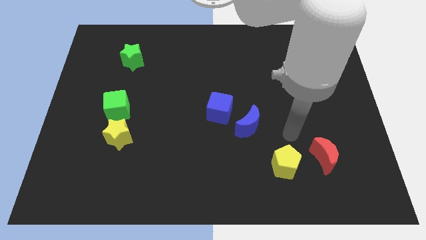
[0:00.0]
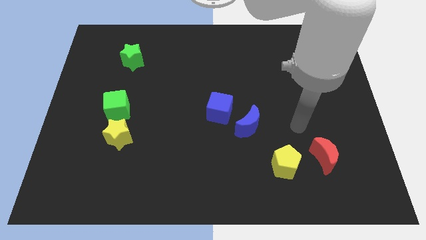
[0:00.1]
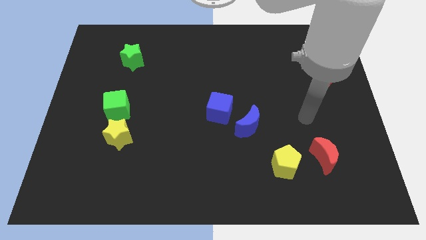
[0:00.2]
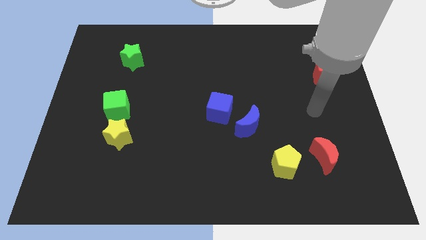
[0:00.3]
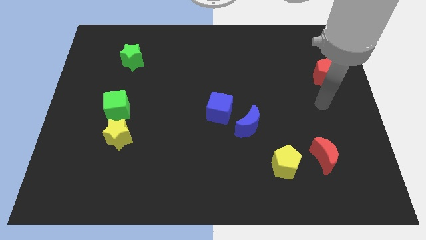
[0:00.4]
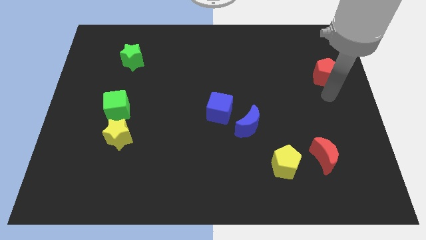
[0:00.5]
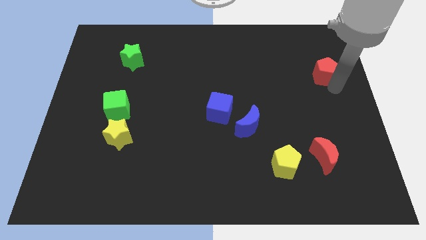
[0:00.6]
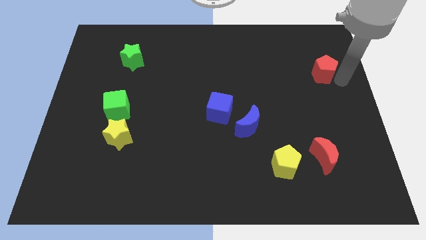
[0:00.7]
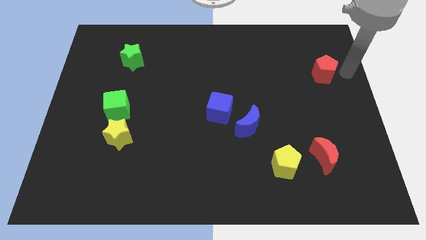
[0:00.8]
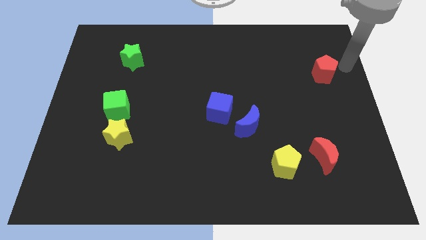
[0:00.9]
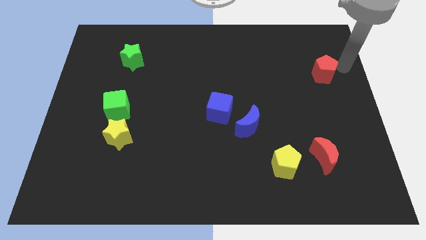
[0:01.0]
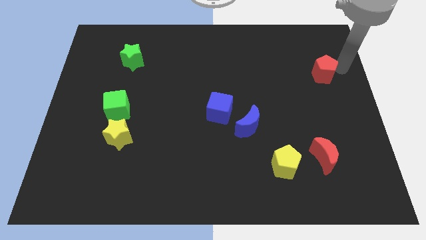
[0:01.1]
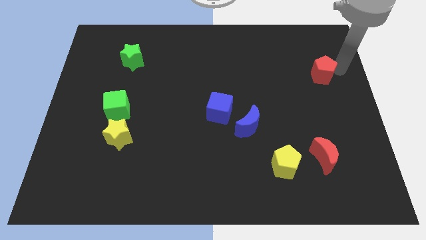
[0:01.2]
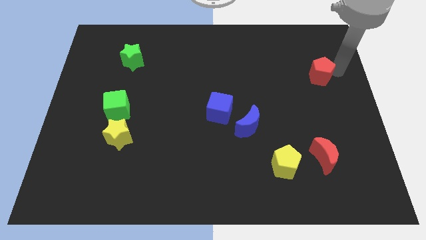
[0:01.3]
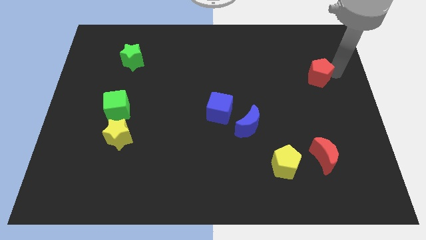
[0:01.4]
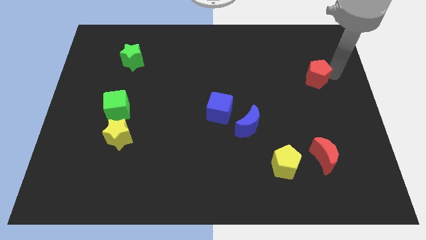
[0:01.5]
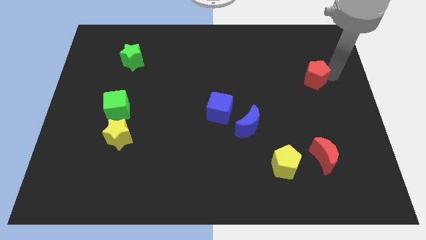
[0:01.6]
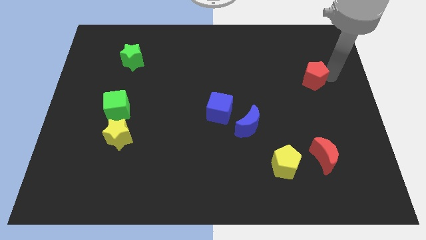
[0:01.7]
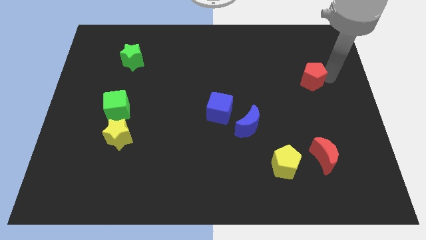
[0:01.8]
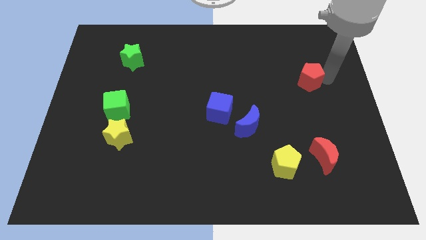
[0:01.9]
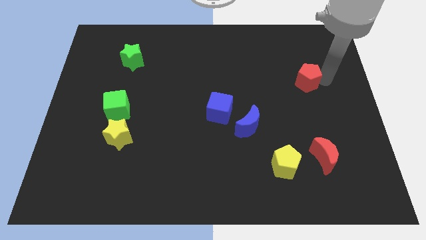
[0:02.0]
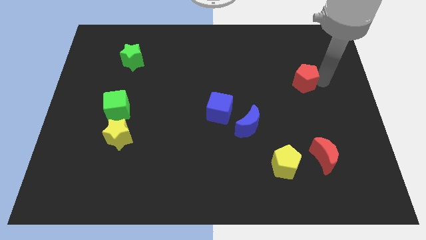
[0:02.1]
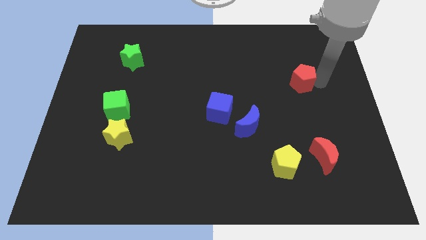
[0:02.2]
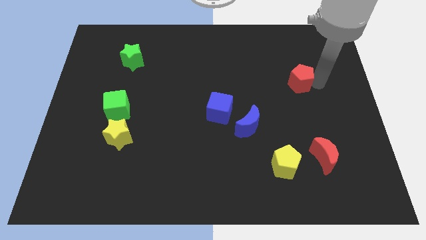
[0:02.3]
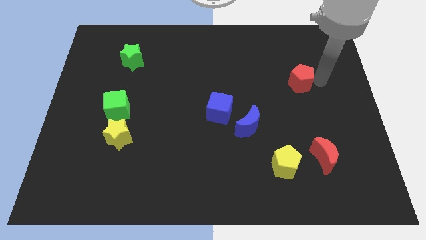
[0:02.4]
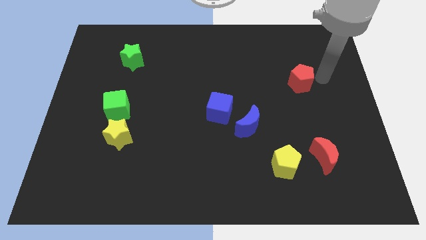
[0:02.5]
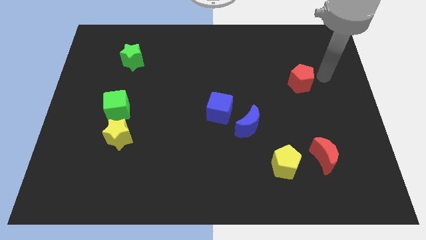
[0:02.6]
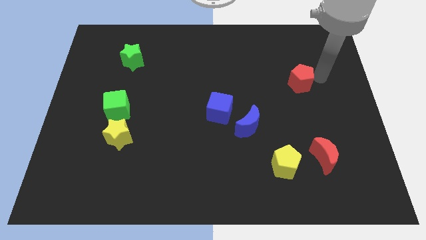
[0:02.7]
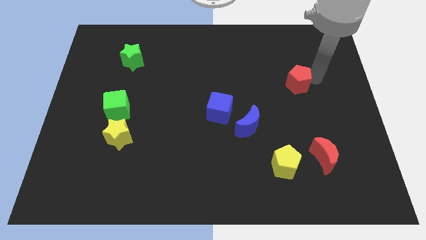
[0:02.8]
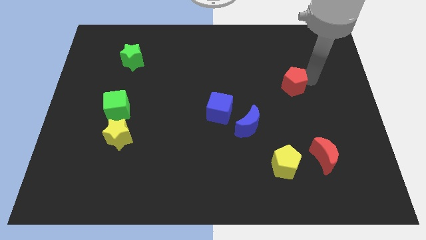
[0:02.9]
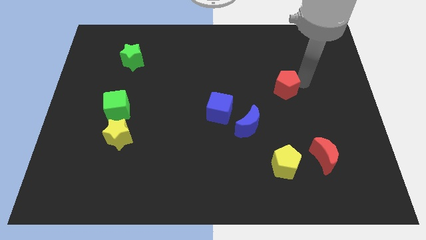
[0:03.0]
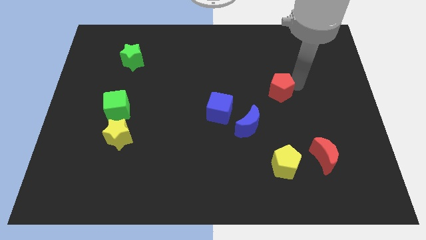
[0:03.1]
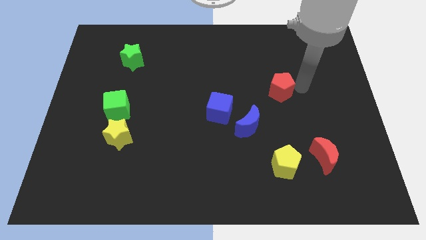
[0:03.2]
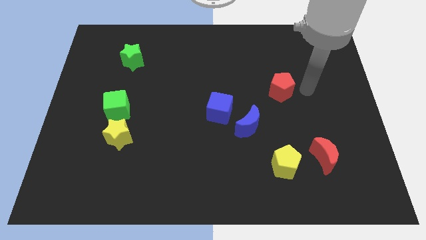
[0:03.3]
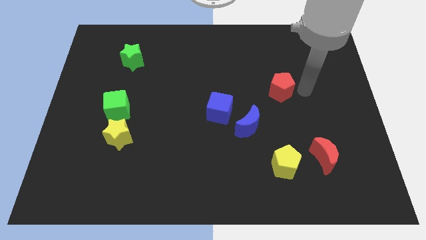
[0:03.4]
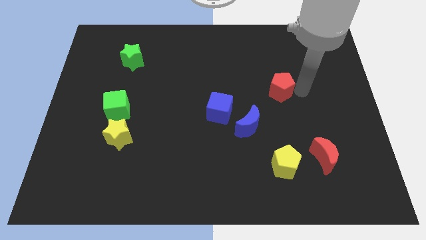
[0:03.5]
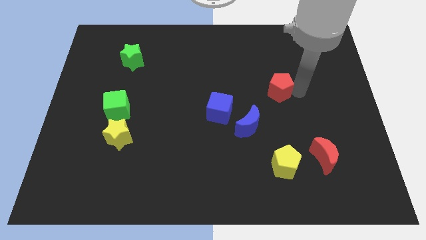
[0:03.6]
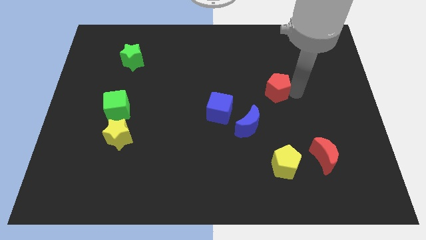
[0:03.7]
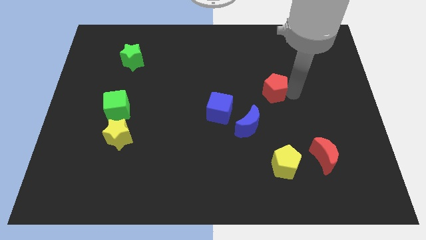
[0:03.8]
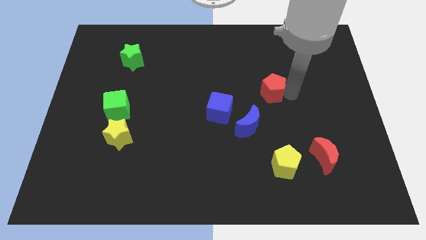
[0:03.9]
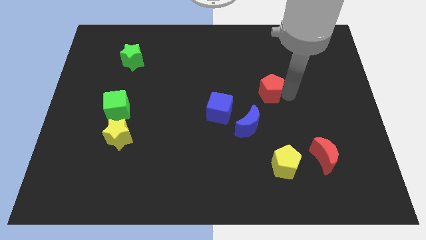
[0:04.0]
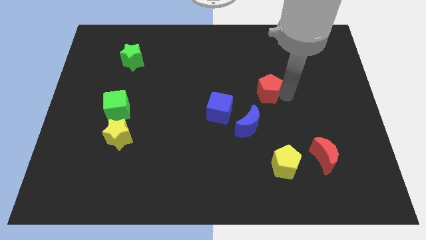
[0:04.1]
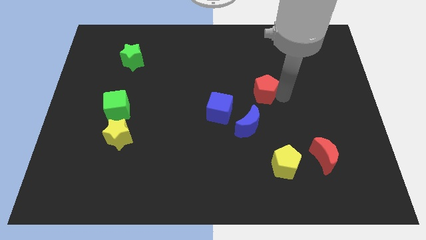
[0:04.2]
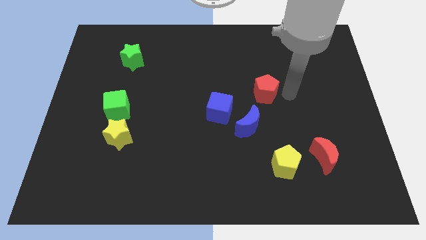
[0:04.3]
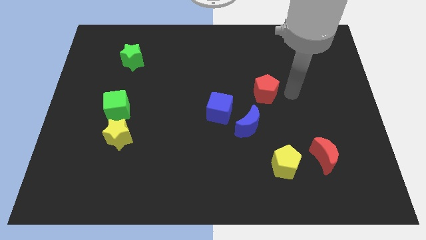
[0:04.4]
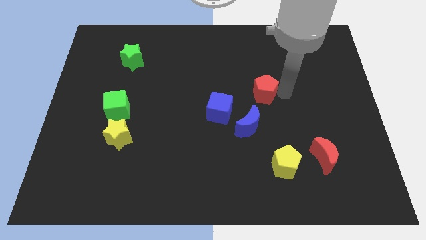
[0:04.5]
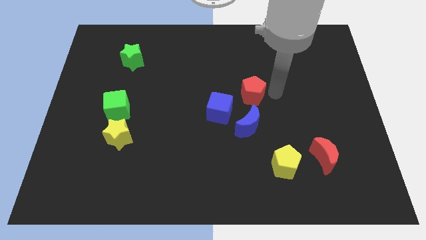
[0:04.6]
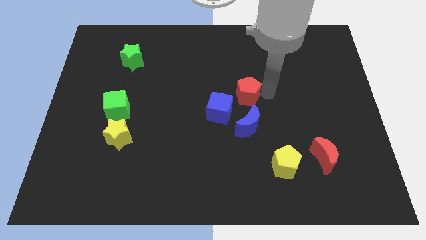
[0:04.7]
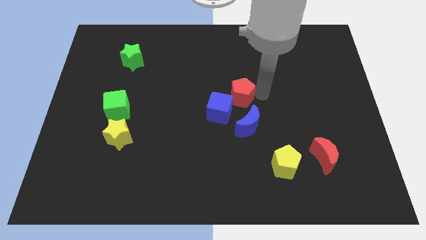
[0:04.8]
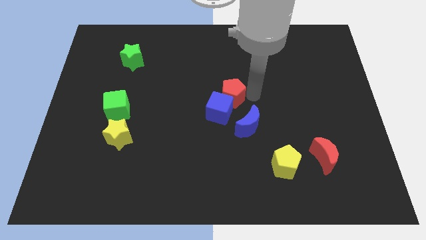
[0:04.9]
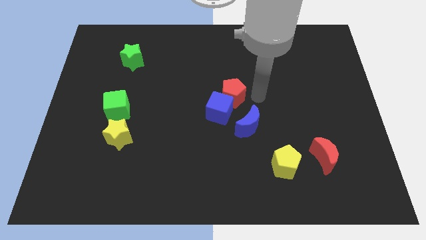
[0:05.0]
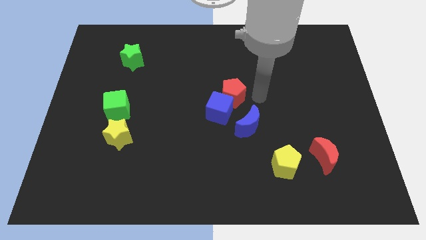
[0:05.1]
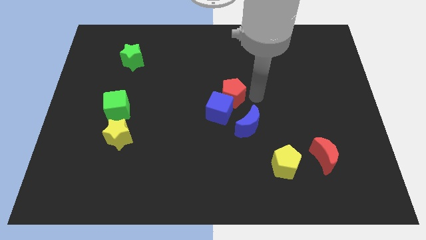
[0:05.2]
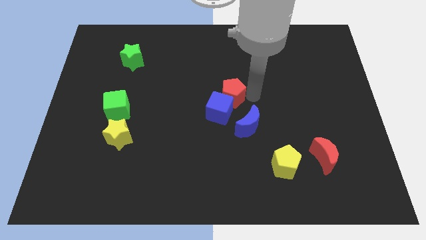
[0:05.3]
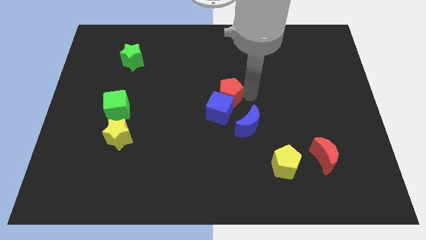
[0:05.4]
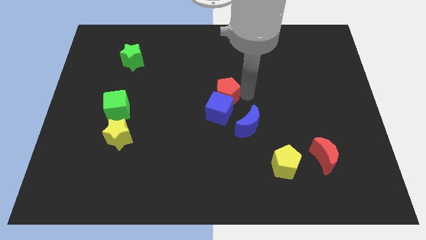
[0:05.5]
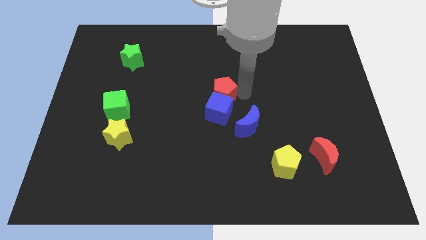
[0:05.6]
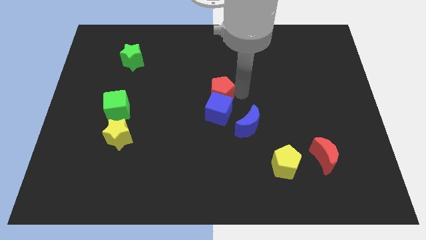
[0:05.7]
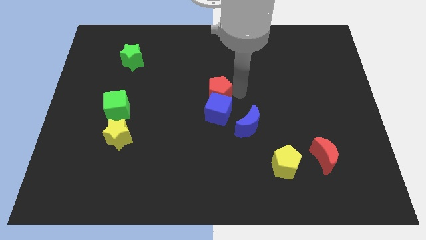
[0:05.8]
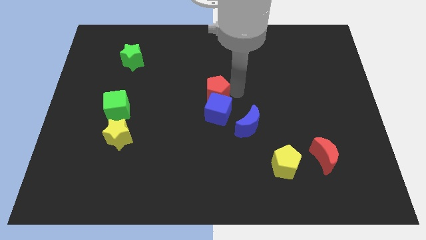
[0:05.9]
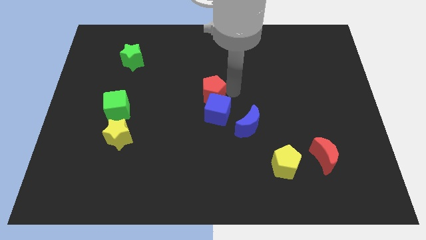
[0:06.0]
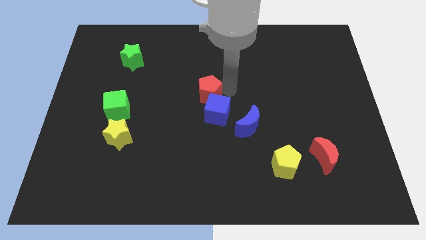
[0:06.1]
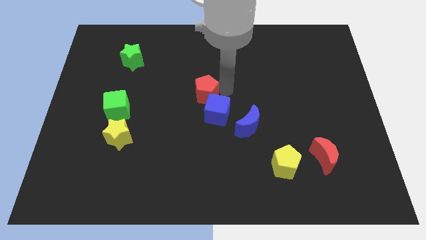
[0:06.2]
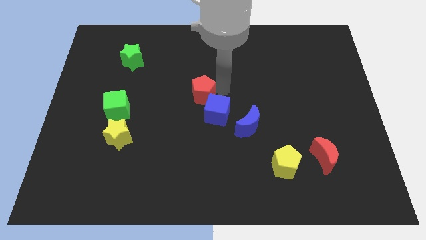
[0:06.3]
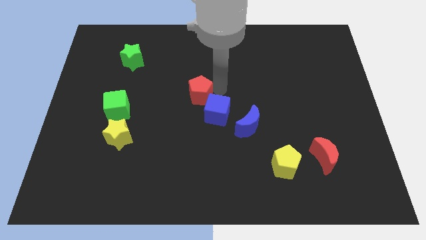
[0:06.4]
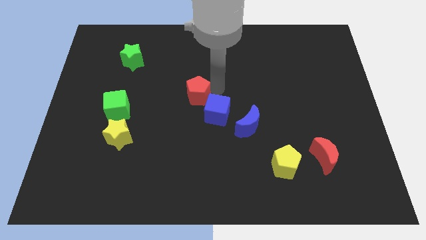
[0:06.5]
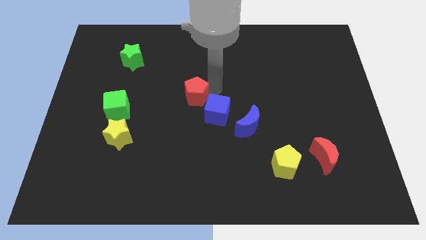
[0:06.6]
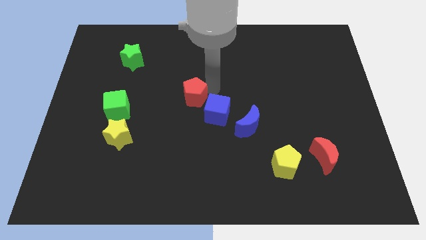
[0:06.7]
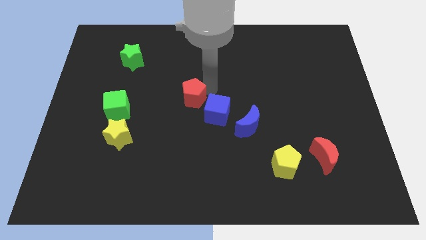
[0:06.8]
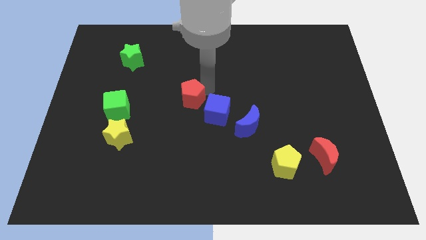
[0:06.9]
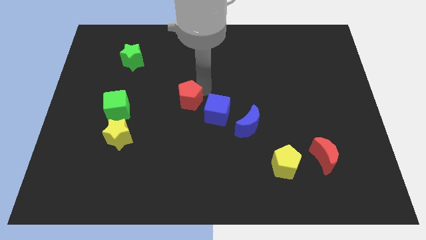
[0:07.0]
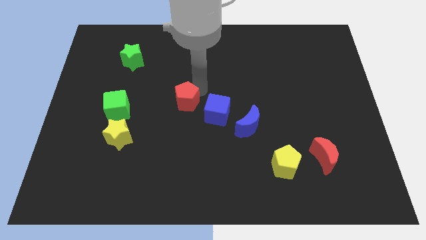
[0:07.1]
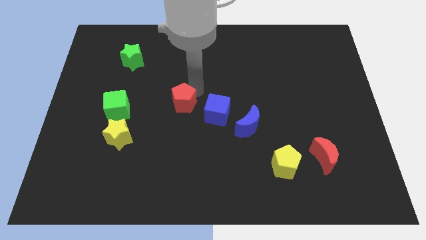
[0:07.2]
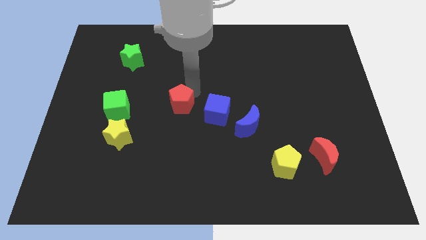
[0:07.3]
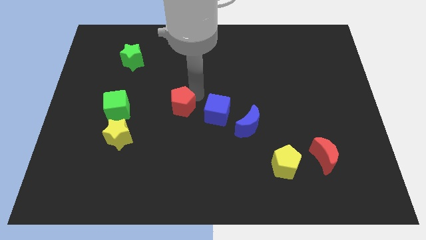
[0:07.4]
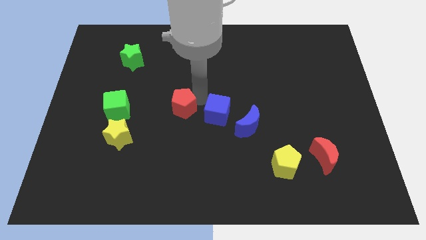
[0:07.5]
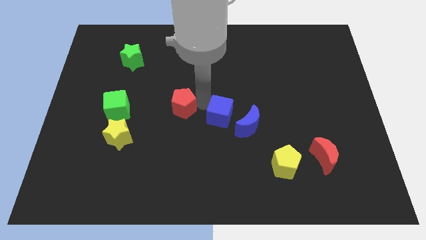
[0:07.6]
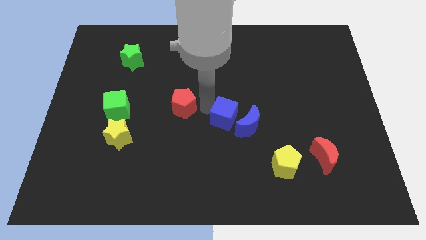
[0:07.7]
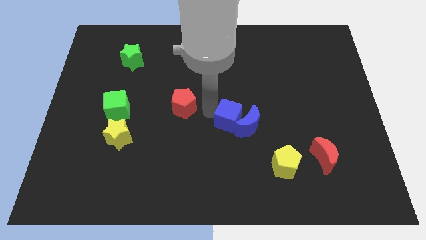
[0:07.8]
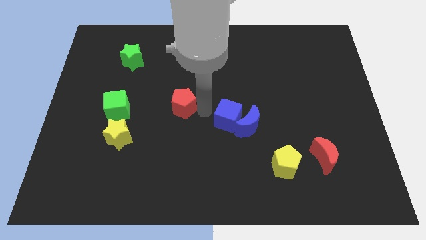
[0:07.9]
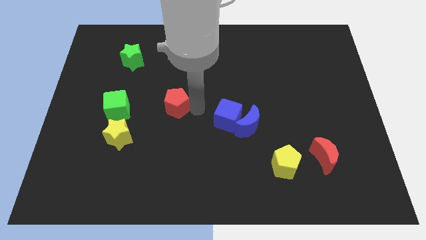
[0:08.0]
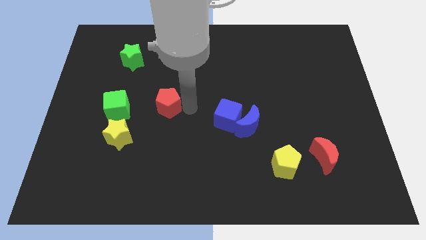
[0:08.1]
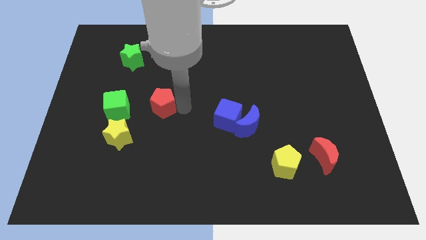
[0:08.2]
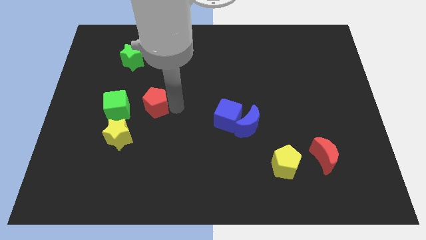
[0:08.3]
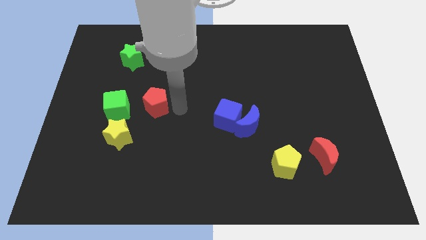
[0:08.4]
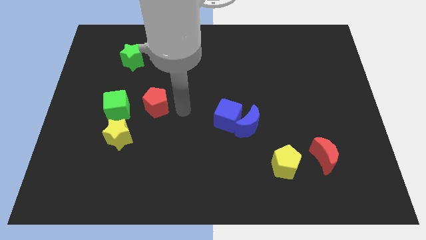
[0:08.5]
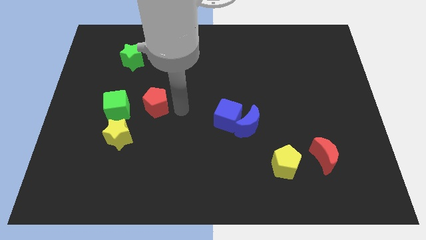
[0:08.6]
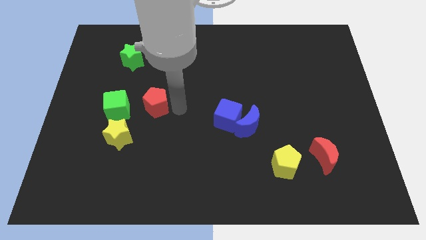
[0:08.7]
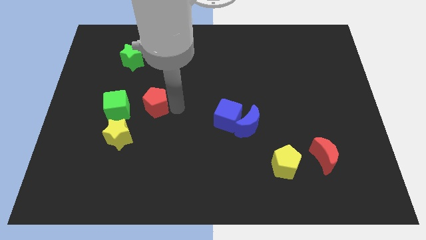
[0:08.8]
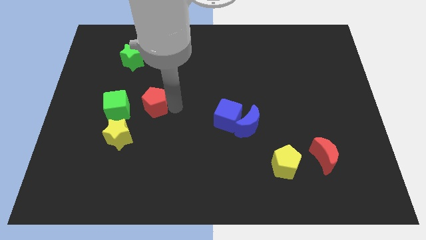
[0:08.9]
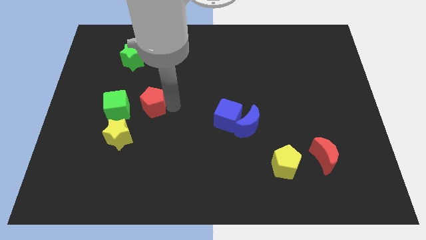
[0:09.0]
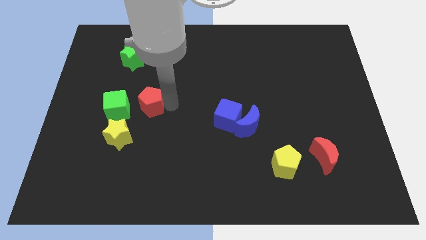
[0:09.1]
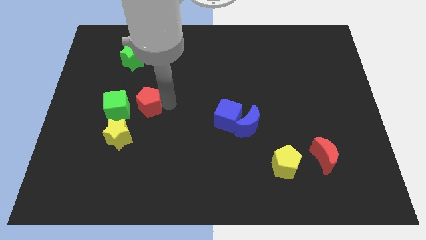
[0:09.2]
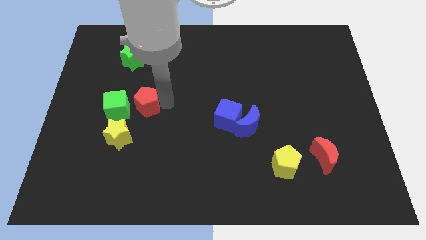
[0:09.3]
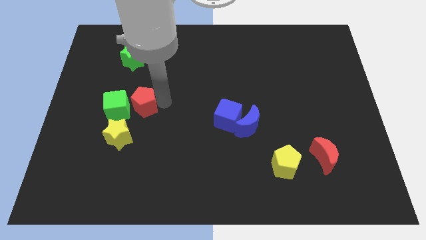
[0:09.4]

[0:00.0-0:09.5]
put the red pentagon next to the green cube
